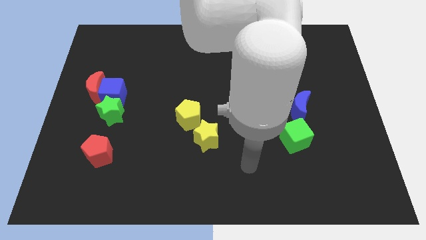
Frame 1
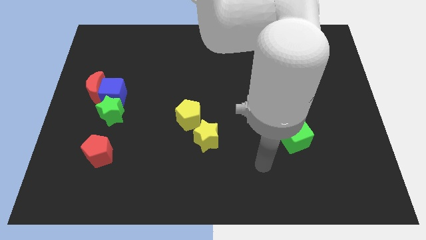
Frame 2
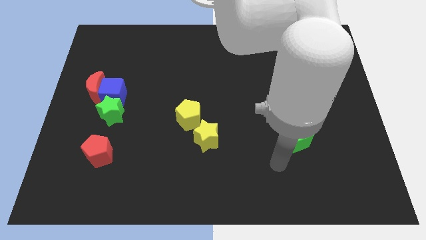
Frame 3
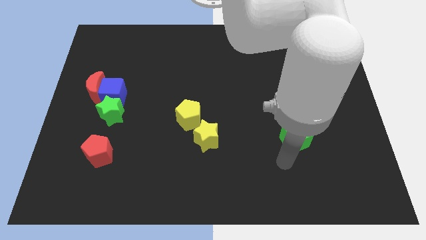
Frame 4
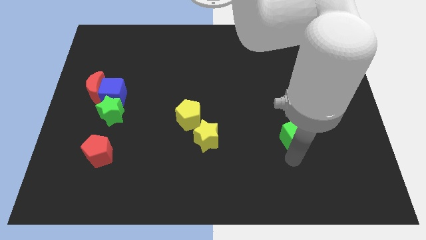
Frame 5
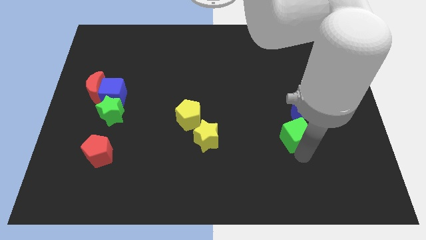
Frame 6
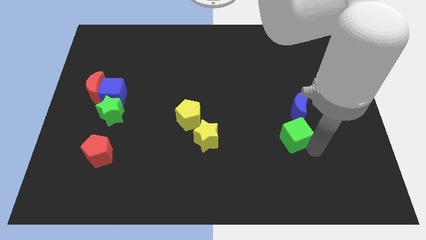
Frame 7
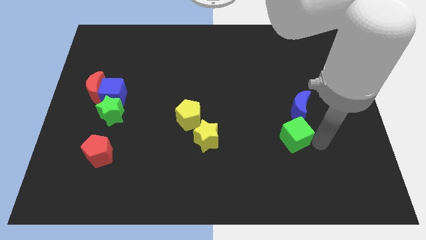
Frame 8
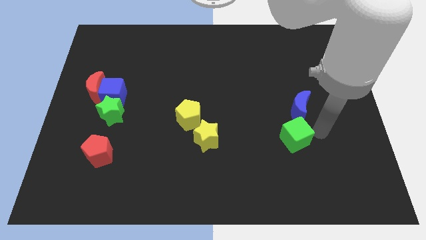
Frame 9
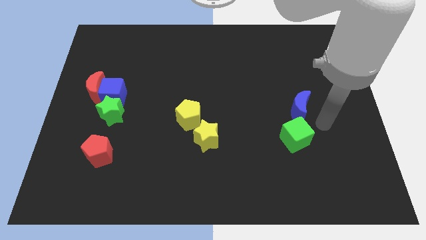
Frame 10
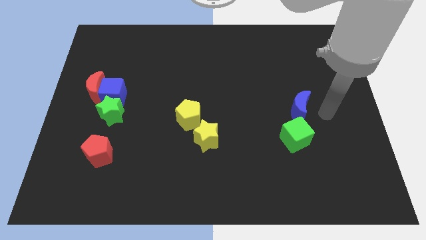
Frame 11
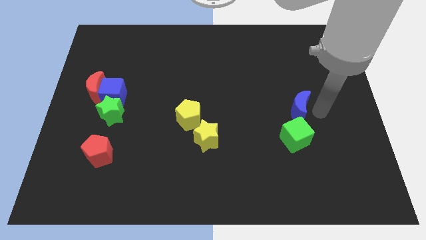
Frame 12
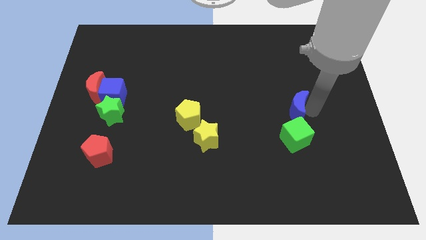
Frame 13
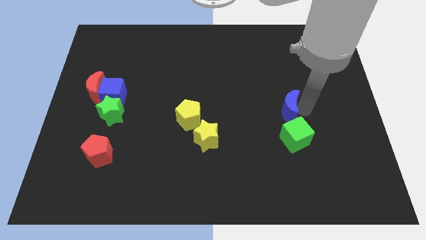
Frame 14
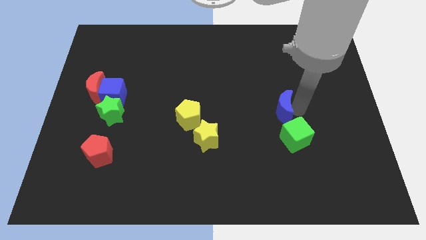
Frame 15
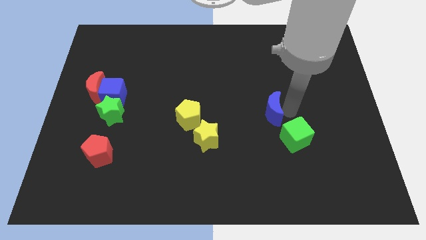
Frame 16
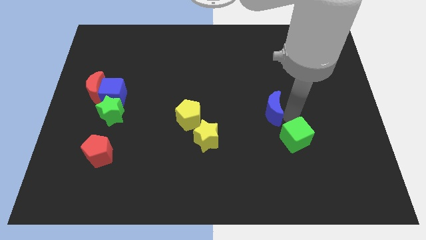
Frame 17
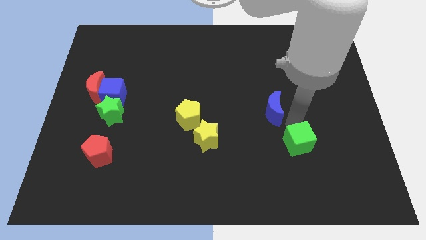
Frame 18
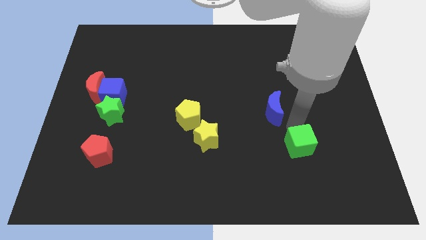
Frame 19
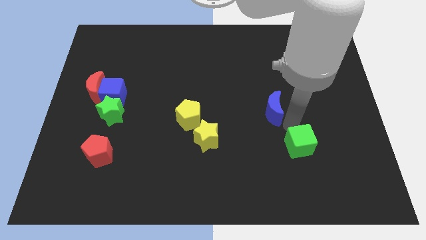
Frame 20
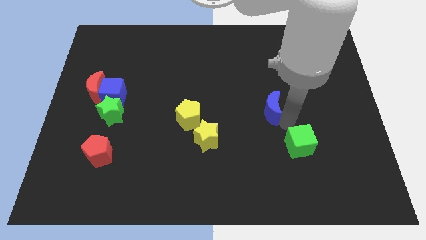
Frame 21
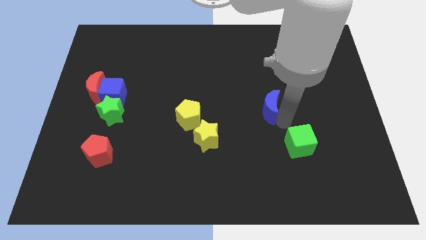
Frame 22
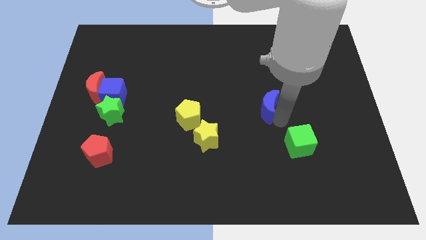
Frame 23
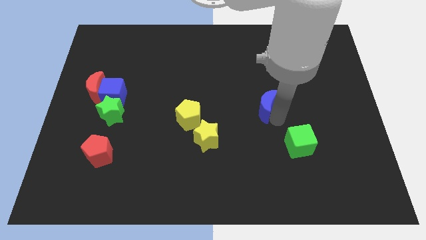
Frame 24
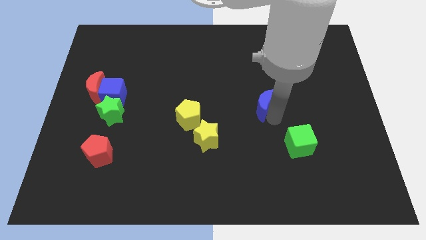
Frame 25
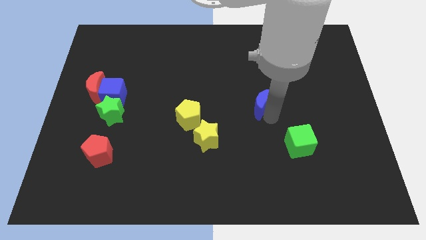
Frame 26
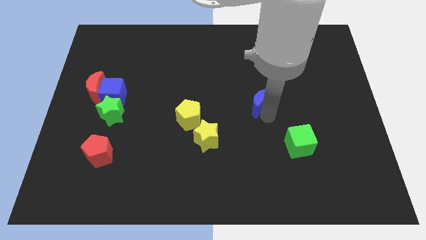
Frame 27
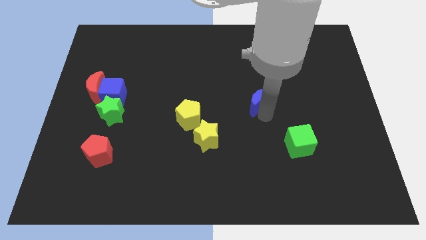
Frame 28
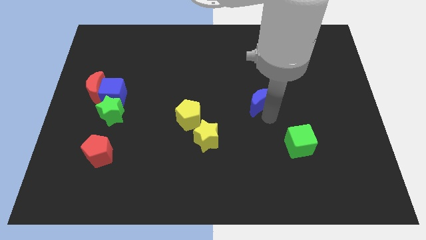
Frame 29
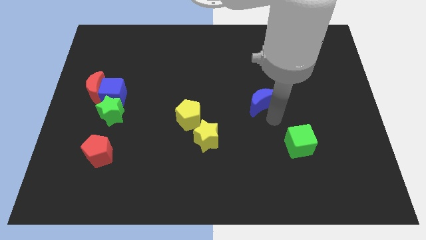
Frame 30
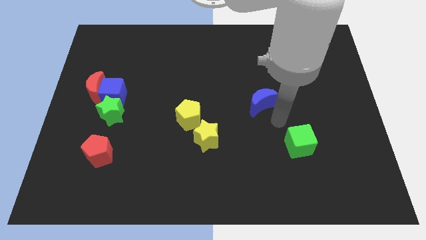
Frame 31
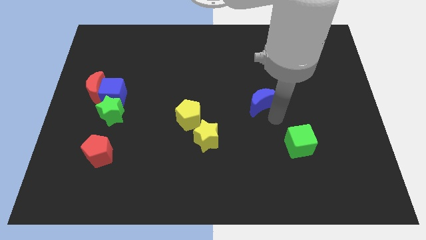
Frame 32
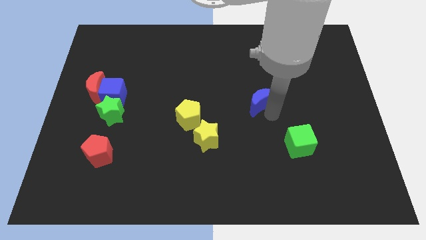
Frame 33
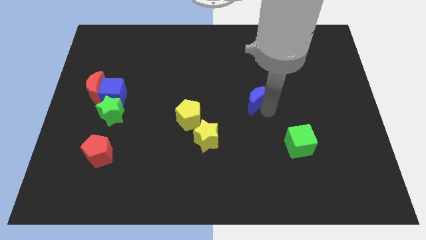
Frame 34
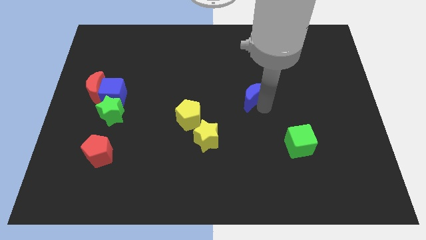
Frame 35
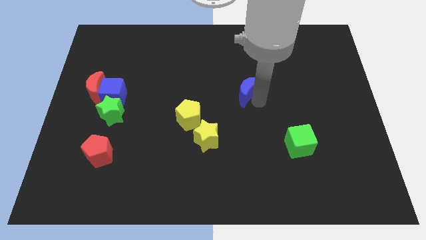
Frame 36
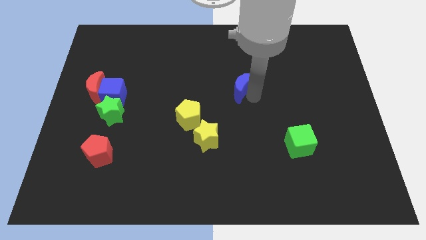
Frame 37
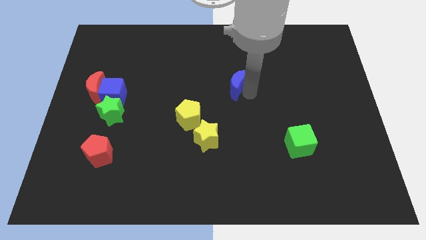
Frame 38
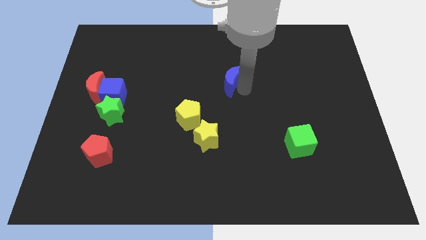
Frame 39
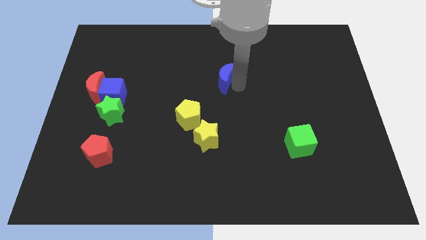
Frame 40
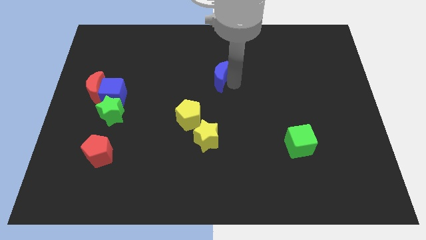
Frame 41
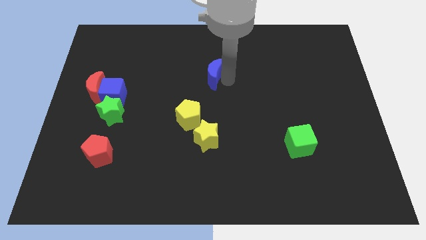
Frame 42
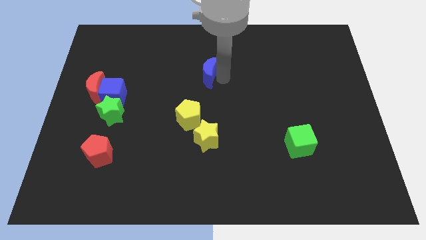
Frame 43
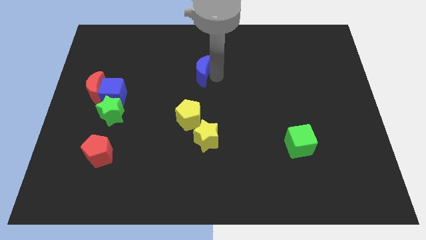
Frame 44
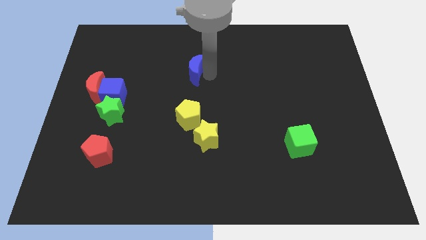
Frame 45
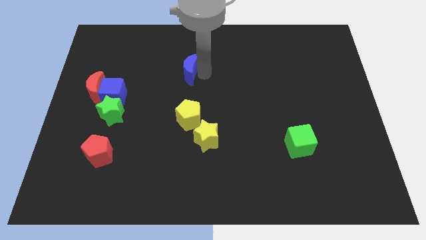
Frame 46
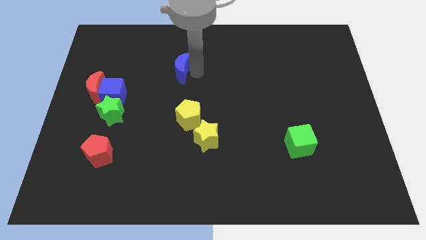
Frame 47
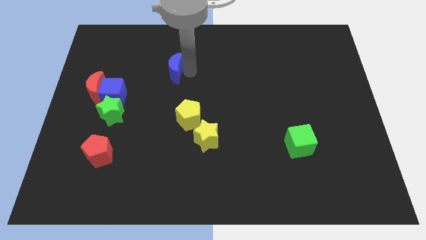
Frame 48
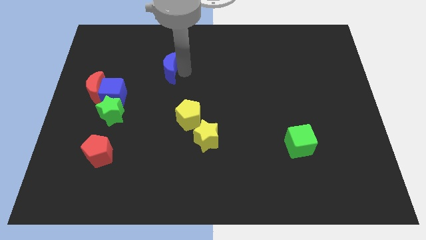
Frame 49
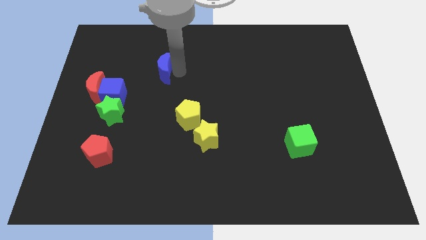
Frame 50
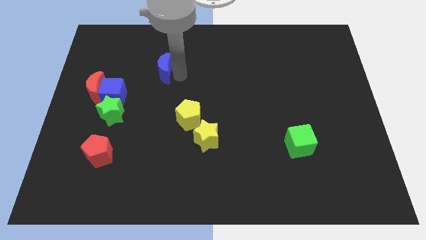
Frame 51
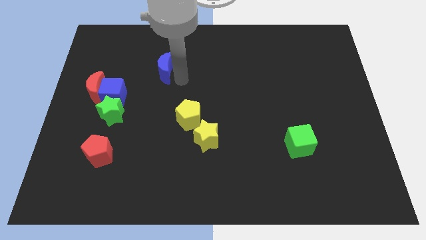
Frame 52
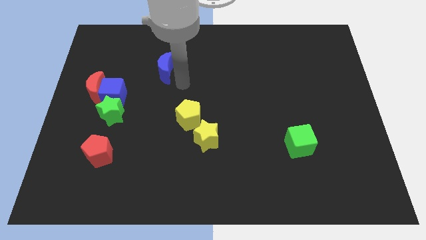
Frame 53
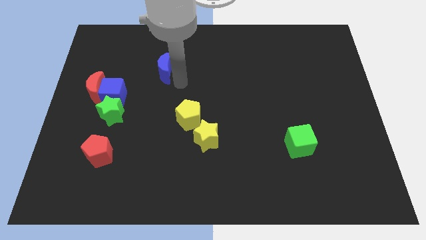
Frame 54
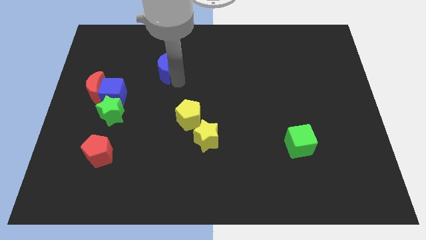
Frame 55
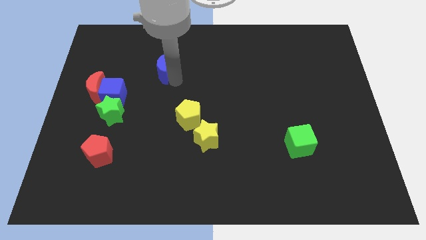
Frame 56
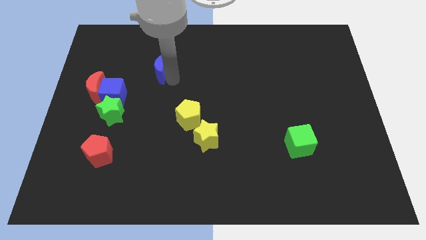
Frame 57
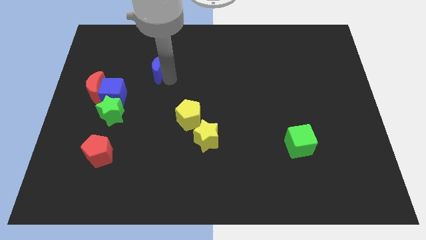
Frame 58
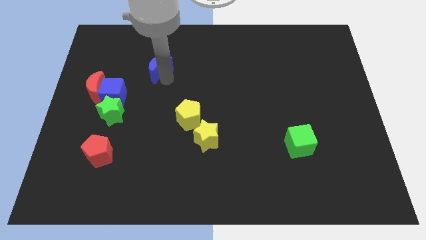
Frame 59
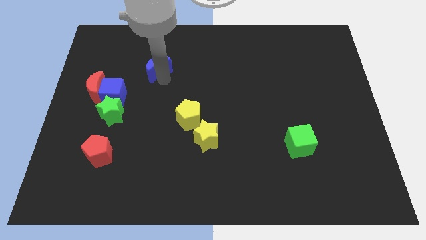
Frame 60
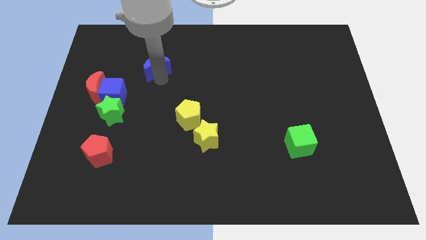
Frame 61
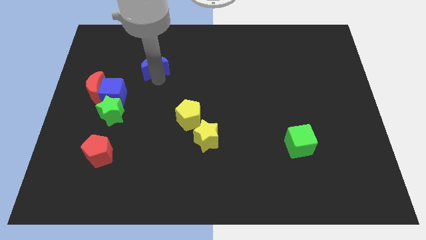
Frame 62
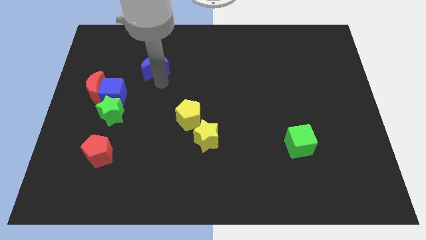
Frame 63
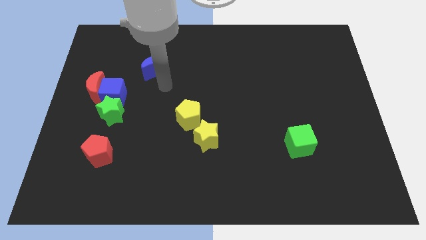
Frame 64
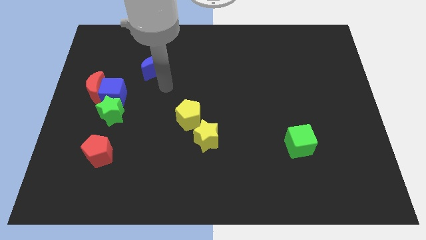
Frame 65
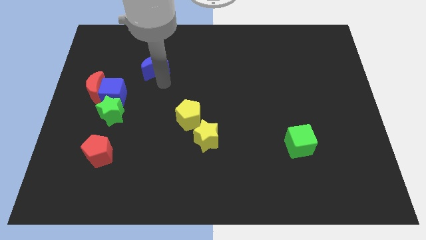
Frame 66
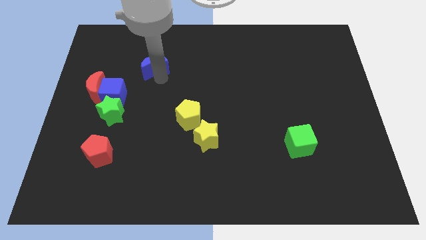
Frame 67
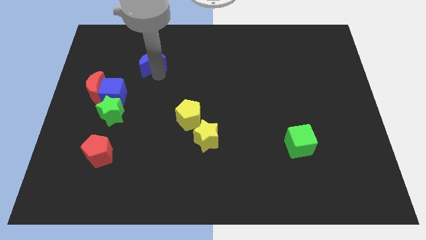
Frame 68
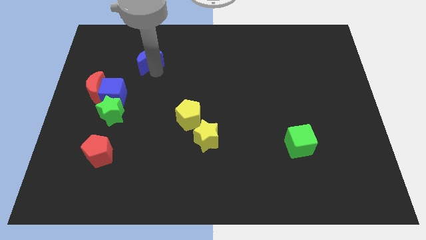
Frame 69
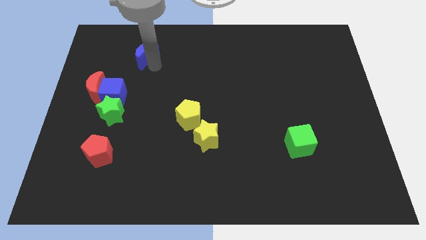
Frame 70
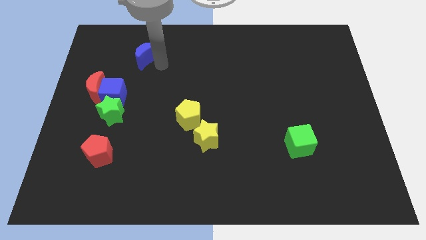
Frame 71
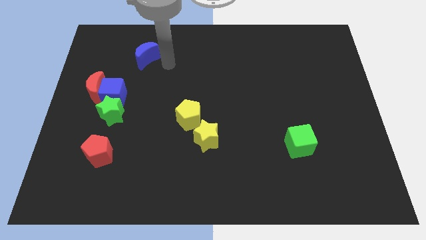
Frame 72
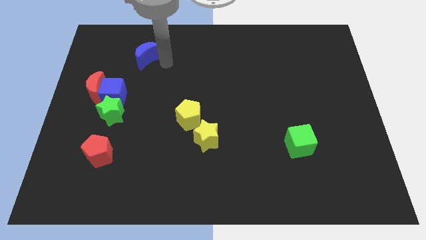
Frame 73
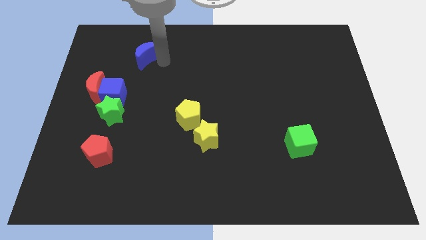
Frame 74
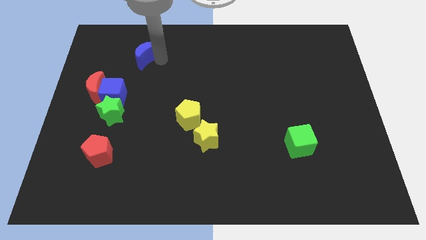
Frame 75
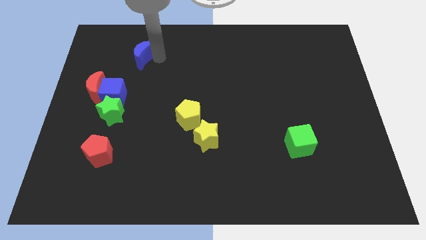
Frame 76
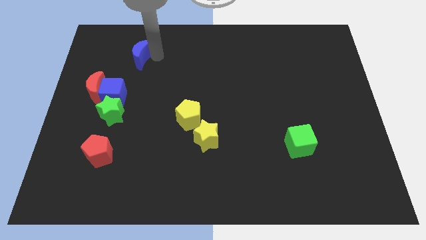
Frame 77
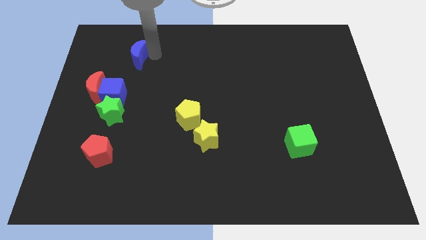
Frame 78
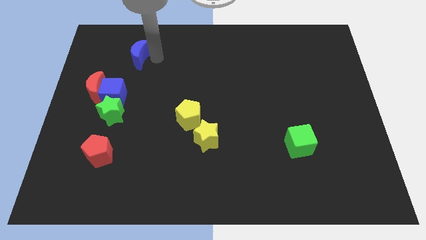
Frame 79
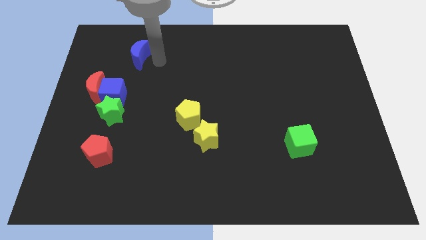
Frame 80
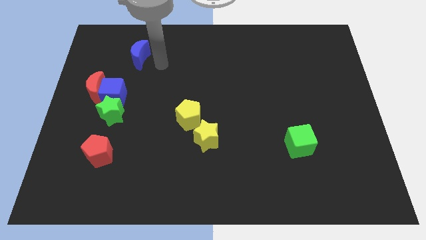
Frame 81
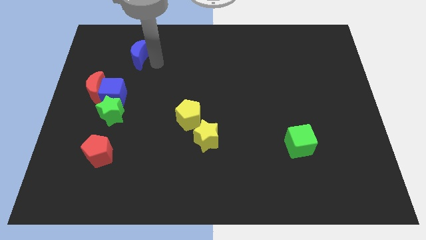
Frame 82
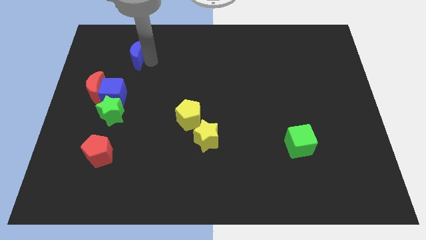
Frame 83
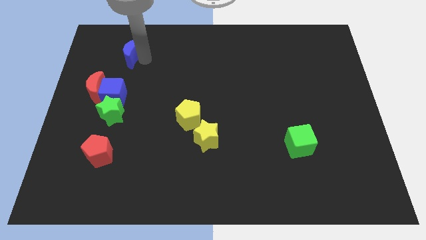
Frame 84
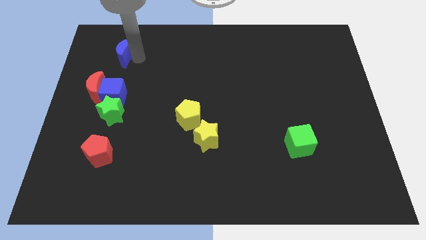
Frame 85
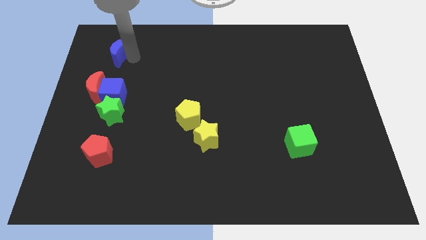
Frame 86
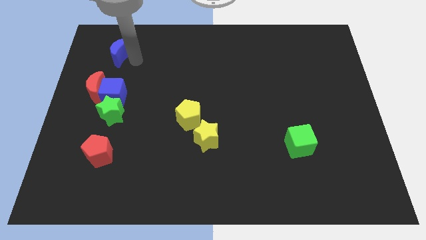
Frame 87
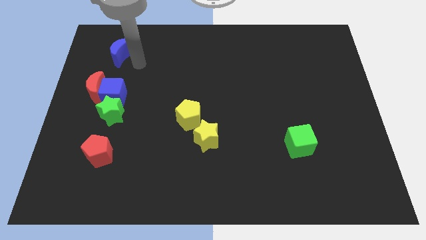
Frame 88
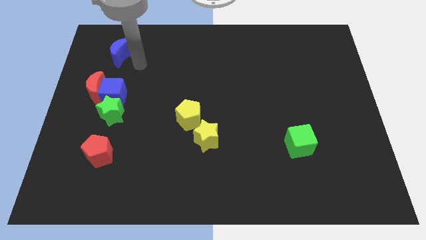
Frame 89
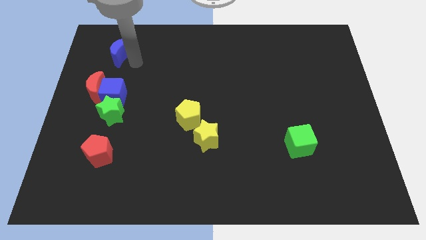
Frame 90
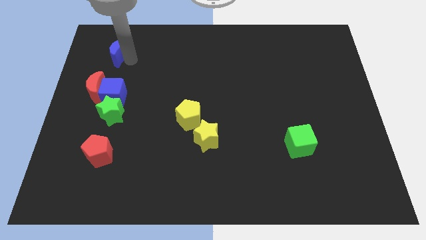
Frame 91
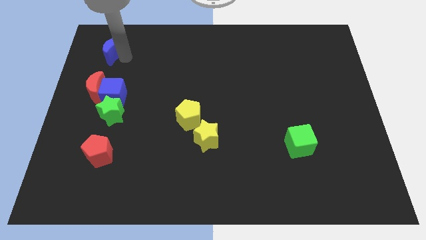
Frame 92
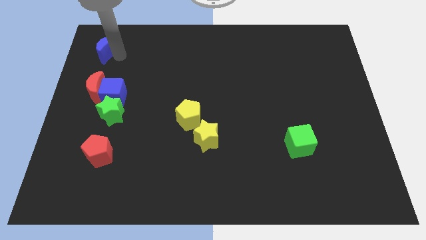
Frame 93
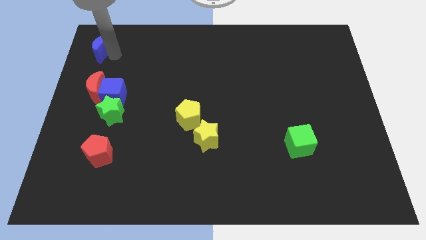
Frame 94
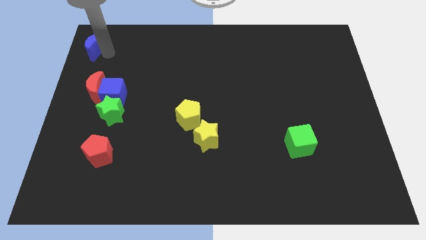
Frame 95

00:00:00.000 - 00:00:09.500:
slide the blue moon to the upper left corner
